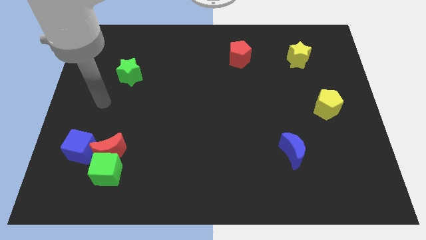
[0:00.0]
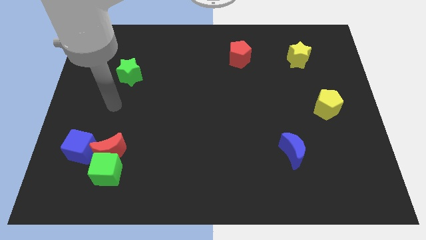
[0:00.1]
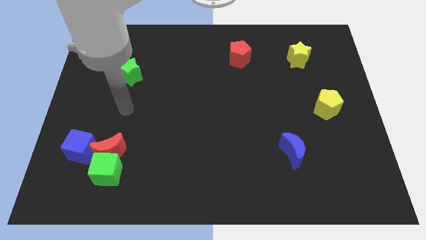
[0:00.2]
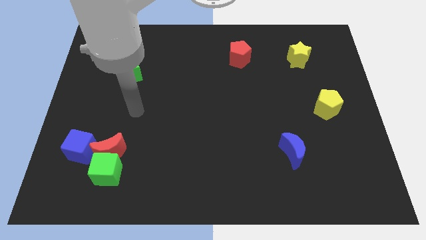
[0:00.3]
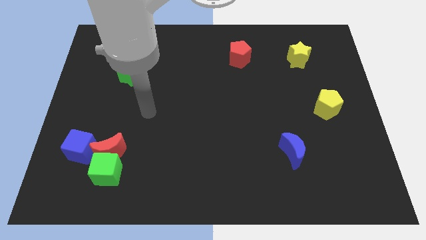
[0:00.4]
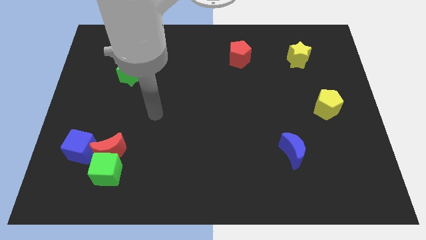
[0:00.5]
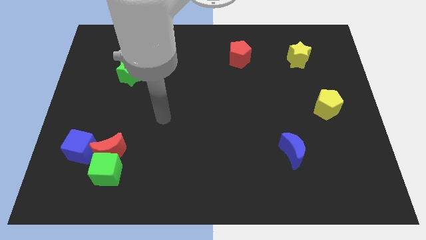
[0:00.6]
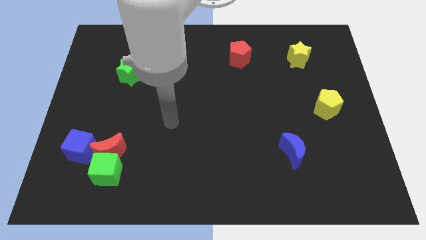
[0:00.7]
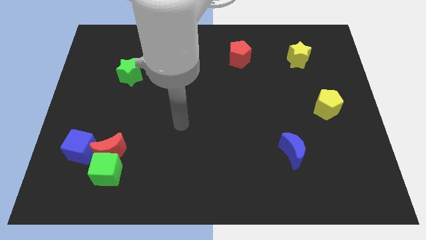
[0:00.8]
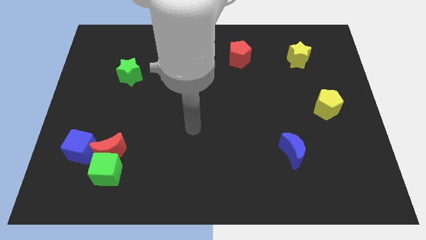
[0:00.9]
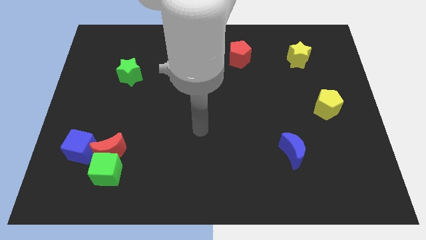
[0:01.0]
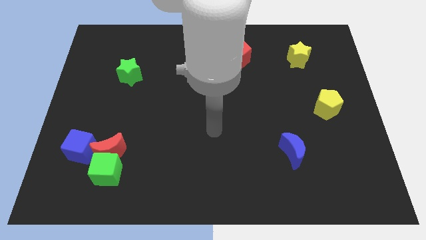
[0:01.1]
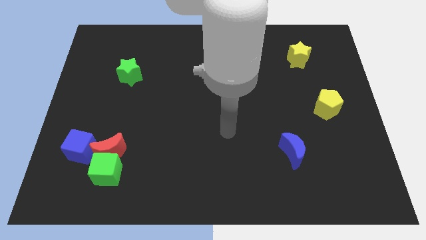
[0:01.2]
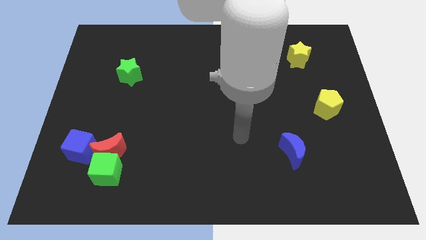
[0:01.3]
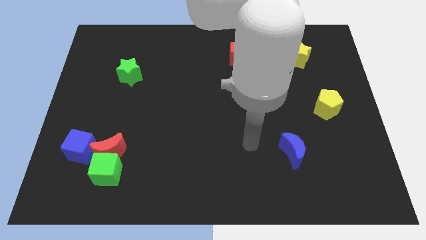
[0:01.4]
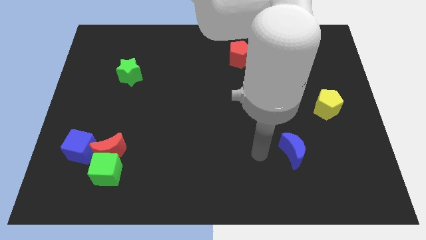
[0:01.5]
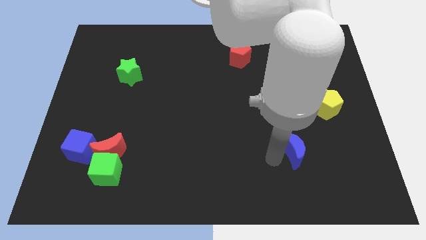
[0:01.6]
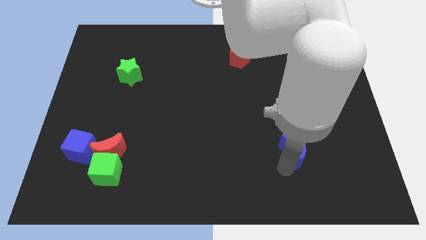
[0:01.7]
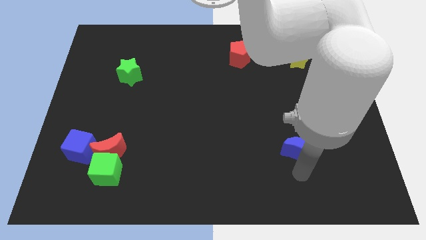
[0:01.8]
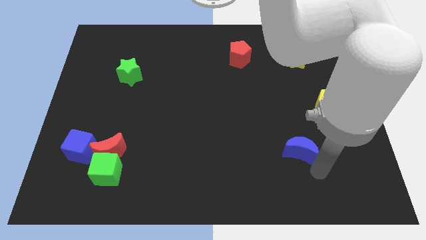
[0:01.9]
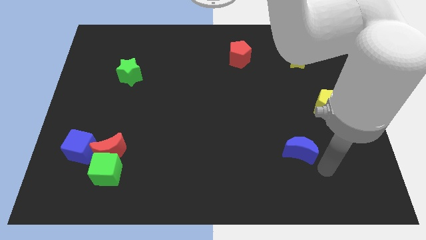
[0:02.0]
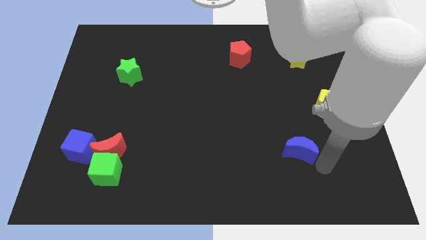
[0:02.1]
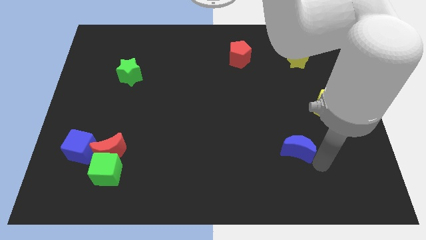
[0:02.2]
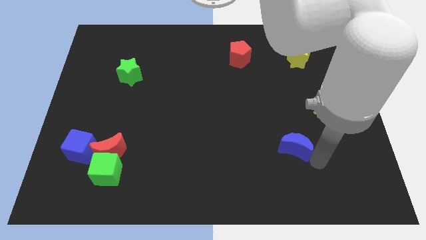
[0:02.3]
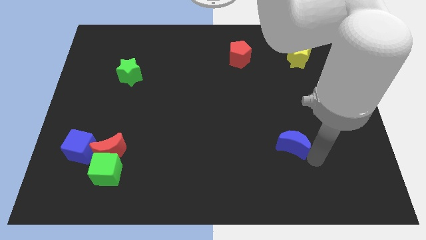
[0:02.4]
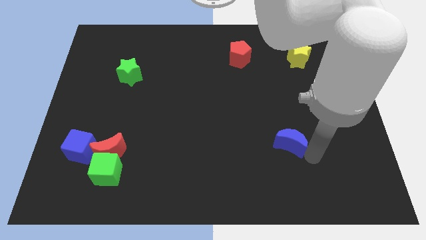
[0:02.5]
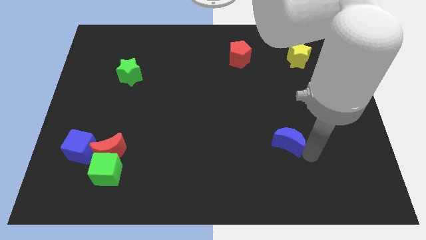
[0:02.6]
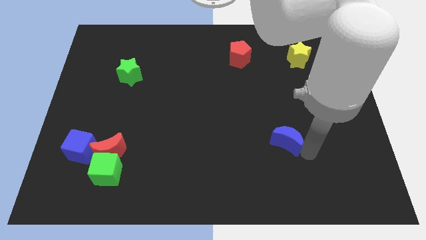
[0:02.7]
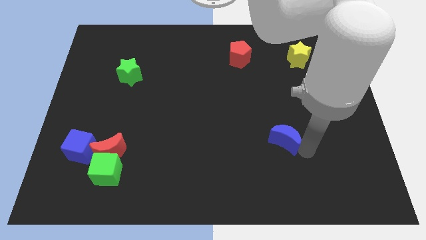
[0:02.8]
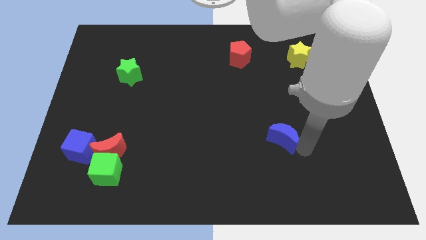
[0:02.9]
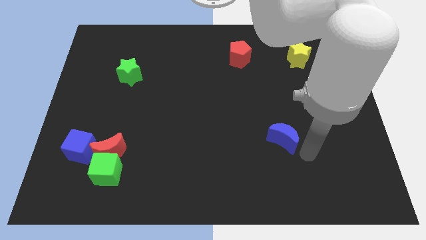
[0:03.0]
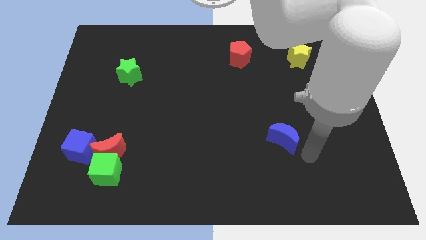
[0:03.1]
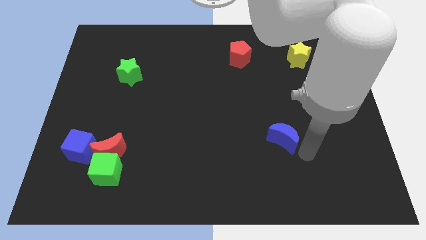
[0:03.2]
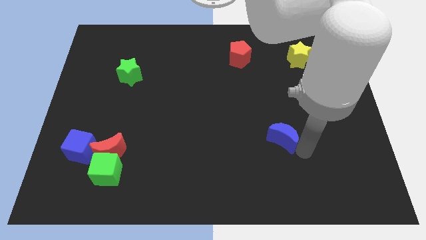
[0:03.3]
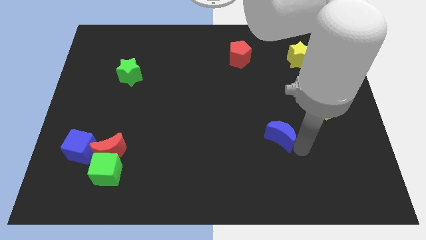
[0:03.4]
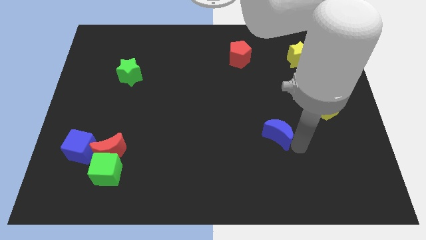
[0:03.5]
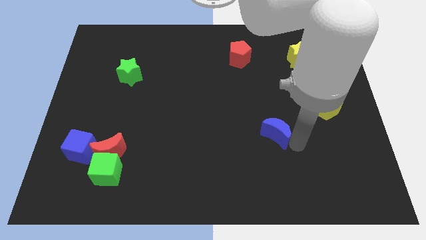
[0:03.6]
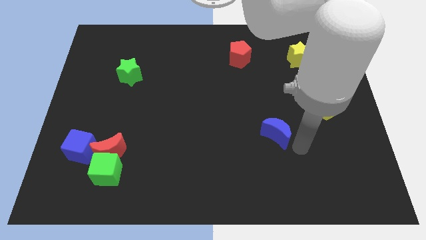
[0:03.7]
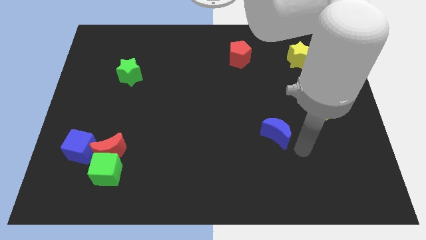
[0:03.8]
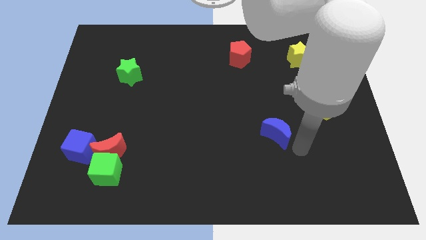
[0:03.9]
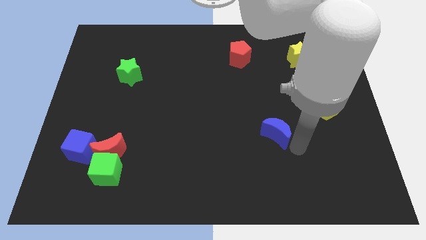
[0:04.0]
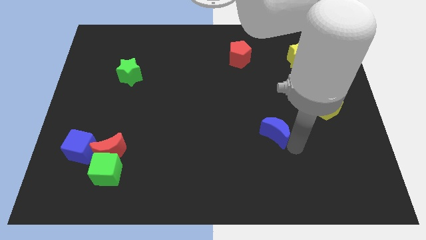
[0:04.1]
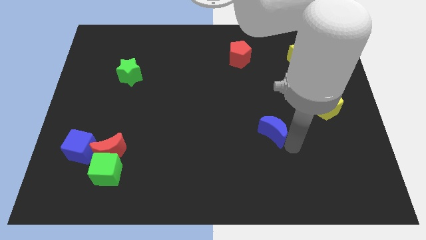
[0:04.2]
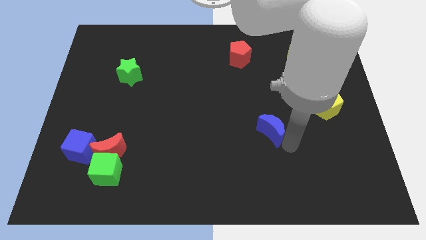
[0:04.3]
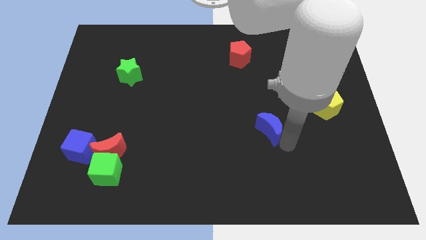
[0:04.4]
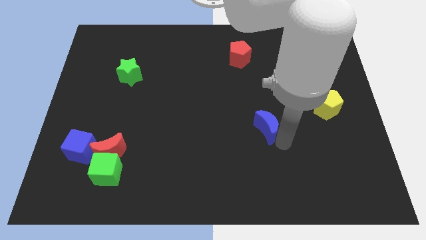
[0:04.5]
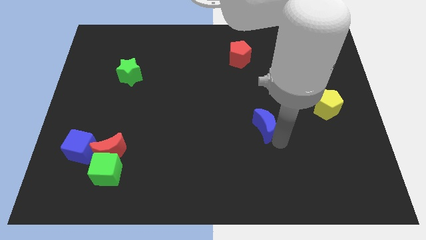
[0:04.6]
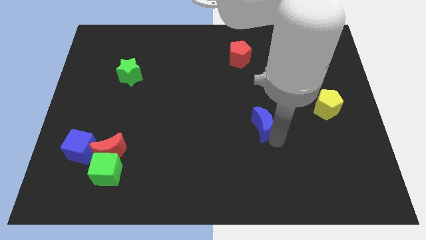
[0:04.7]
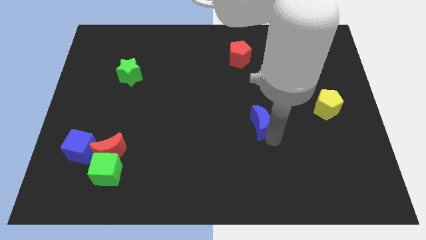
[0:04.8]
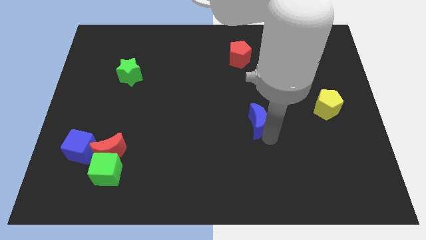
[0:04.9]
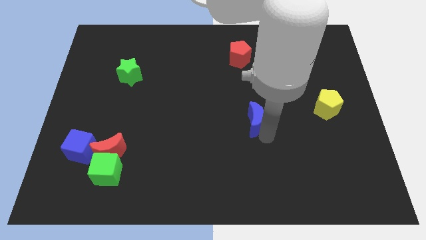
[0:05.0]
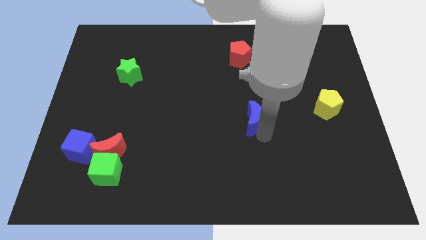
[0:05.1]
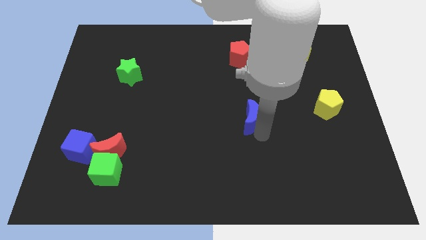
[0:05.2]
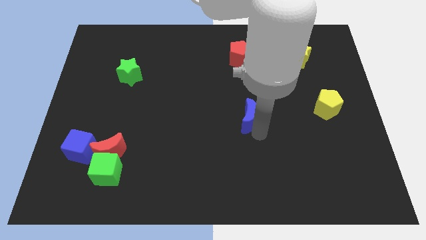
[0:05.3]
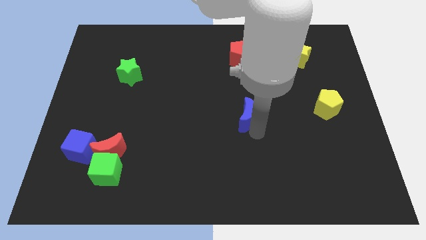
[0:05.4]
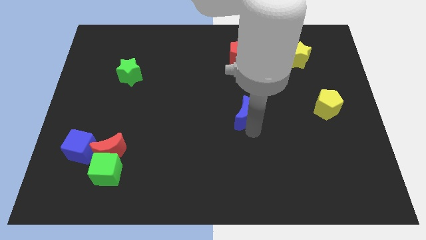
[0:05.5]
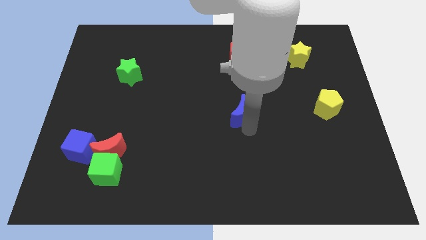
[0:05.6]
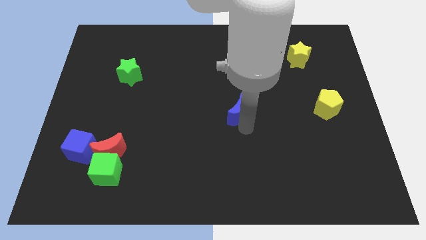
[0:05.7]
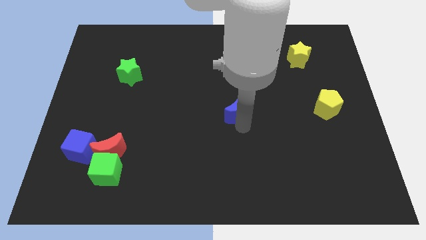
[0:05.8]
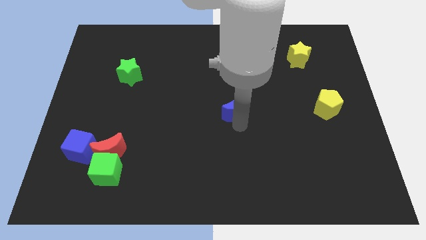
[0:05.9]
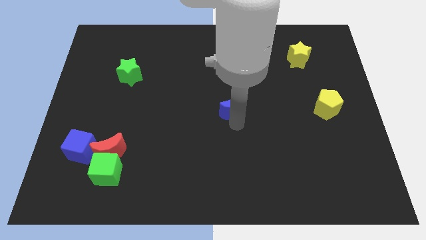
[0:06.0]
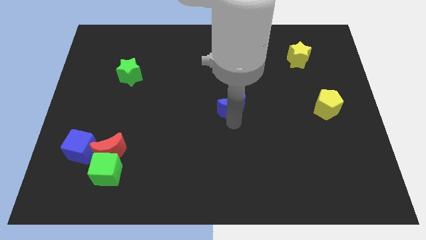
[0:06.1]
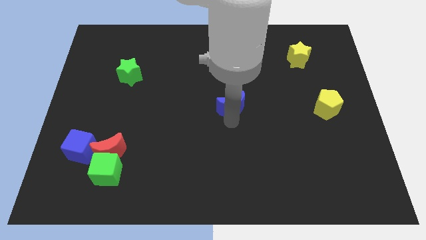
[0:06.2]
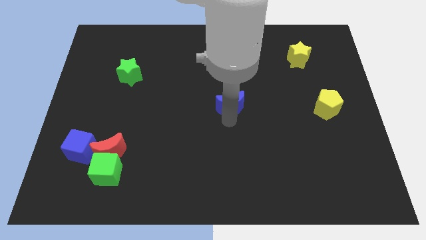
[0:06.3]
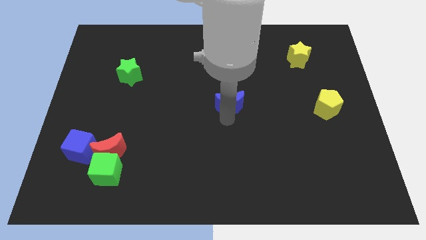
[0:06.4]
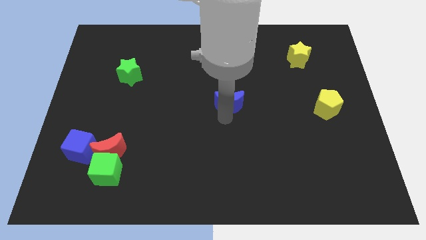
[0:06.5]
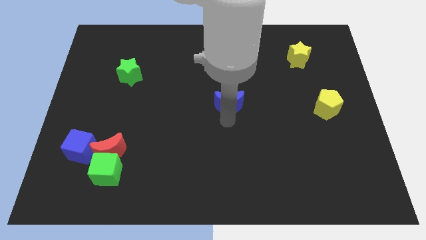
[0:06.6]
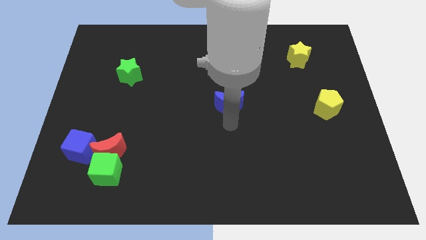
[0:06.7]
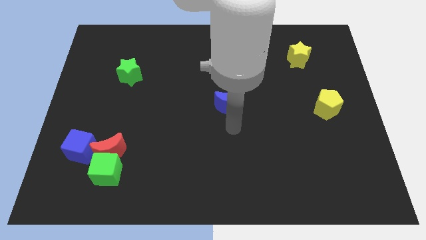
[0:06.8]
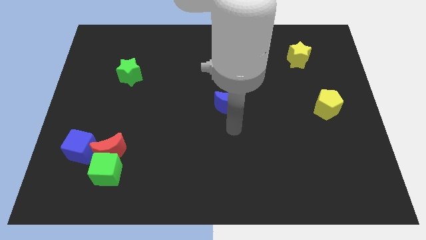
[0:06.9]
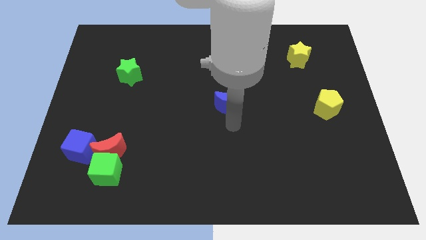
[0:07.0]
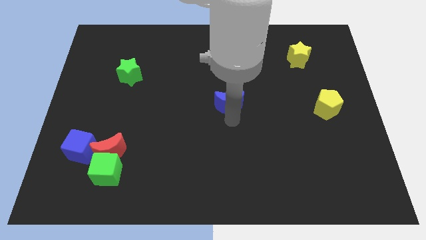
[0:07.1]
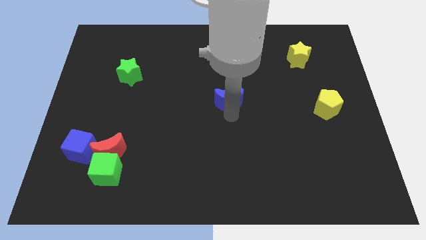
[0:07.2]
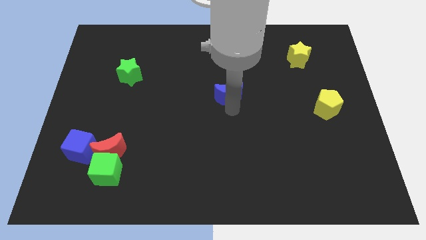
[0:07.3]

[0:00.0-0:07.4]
push the blue moon up and to the left diagonally

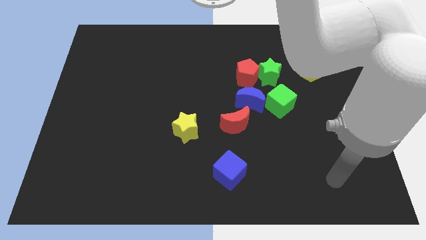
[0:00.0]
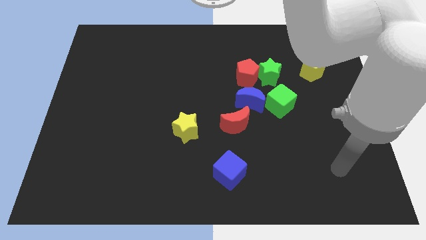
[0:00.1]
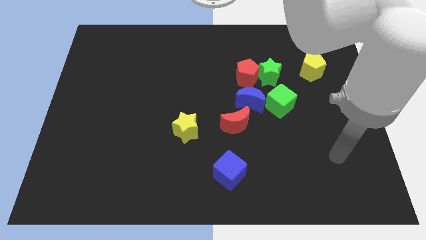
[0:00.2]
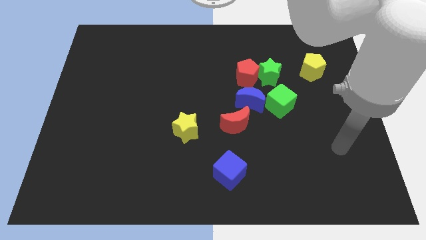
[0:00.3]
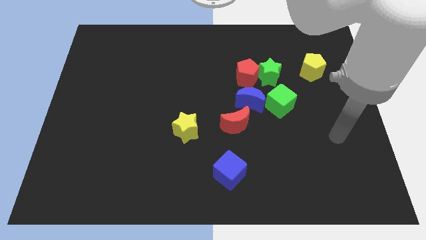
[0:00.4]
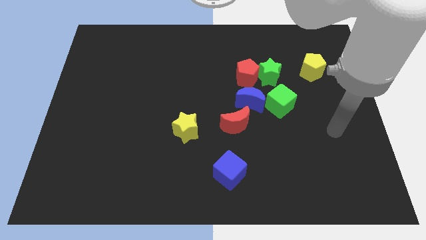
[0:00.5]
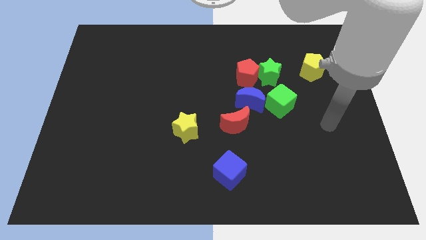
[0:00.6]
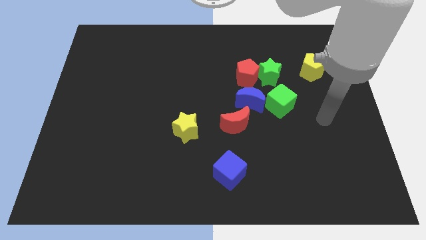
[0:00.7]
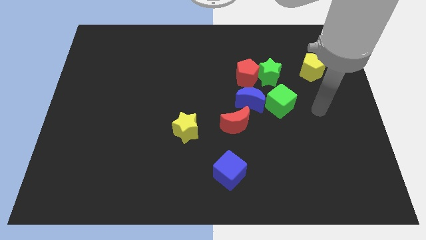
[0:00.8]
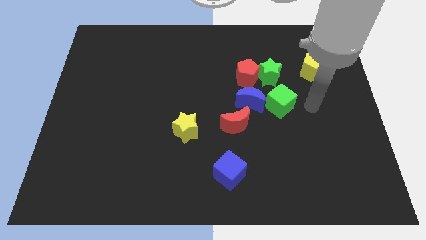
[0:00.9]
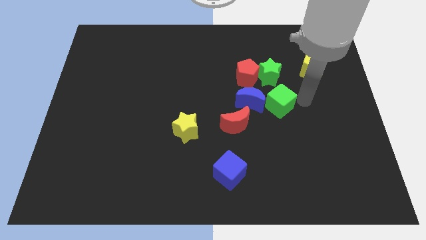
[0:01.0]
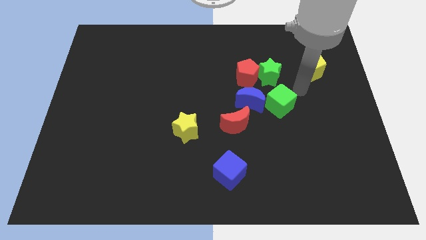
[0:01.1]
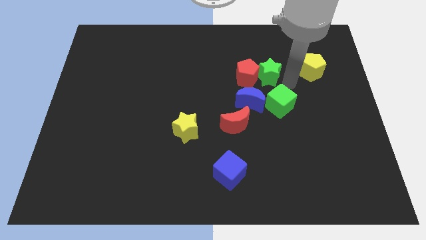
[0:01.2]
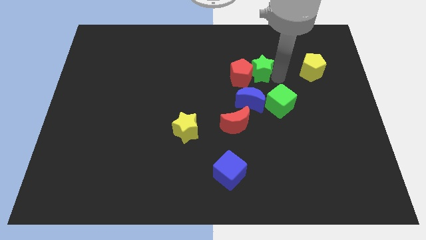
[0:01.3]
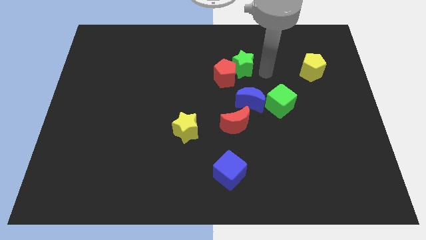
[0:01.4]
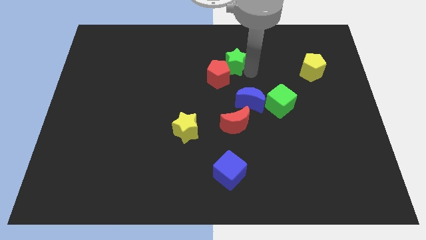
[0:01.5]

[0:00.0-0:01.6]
slide the red pentagon left a little
